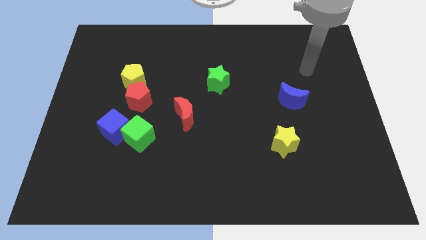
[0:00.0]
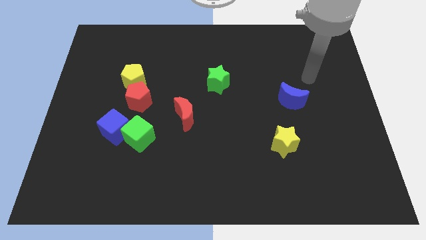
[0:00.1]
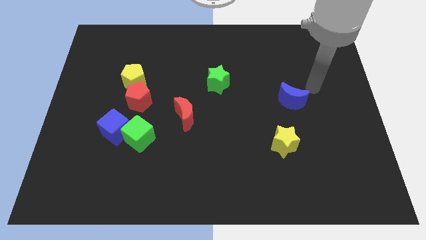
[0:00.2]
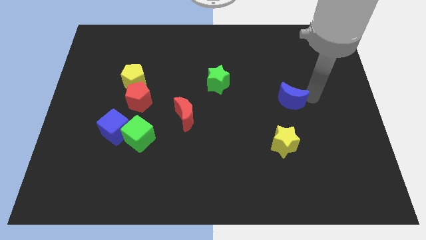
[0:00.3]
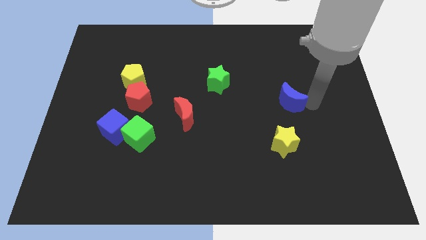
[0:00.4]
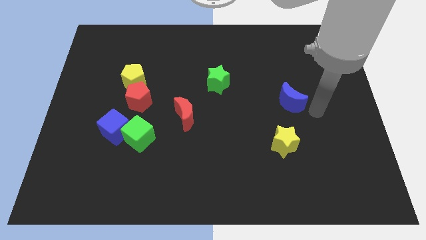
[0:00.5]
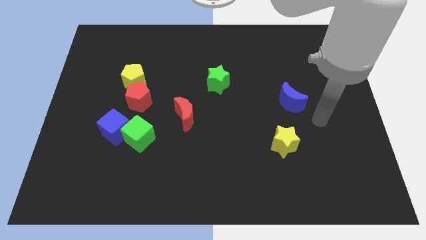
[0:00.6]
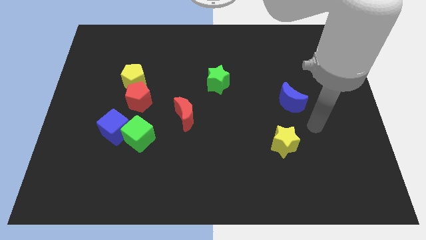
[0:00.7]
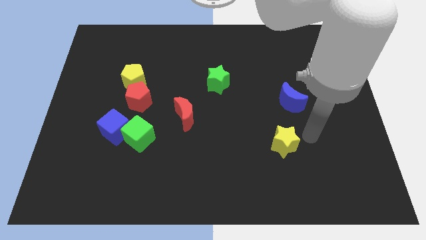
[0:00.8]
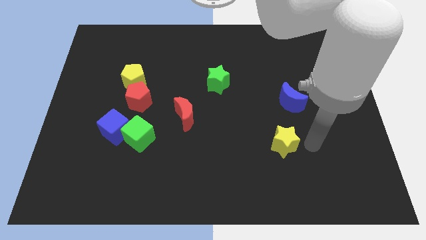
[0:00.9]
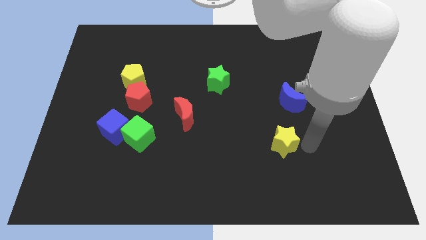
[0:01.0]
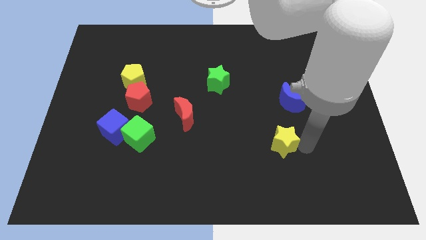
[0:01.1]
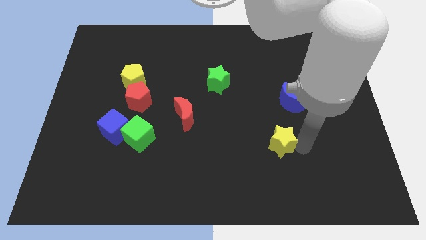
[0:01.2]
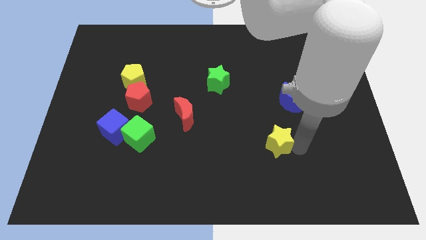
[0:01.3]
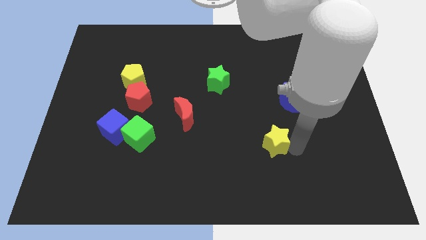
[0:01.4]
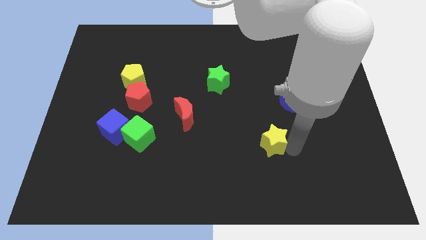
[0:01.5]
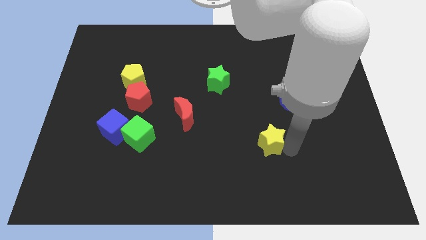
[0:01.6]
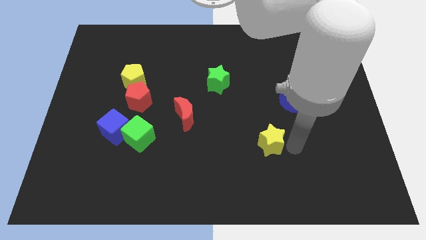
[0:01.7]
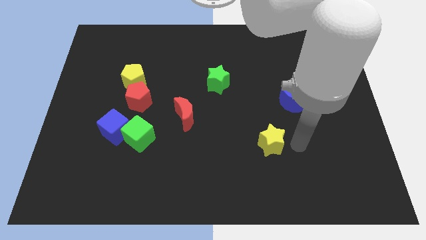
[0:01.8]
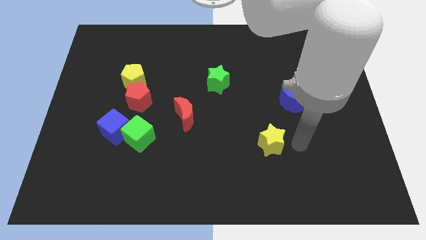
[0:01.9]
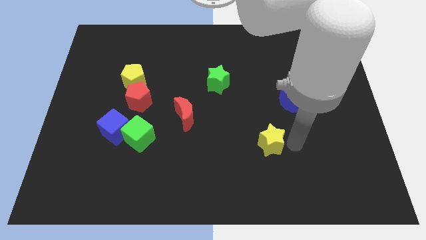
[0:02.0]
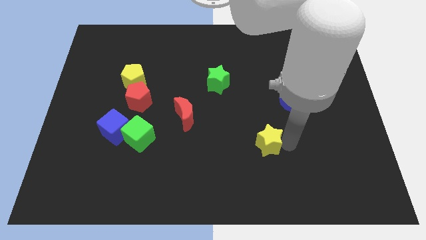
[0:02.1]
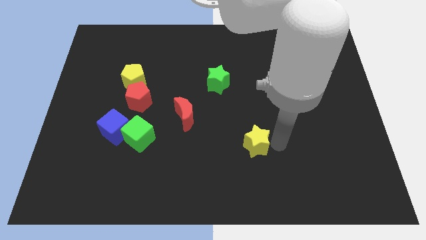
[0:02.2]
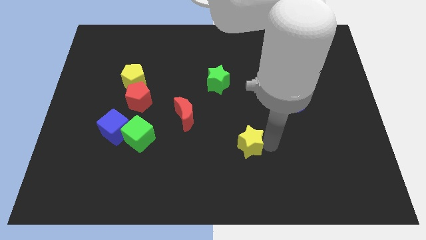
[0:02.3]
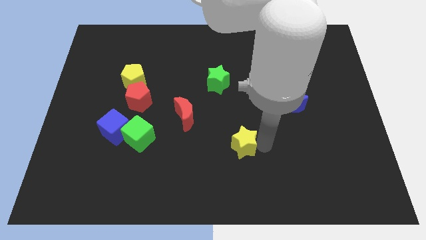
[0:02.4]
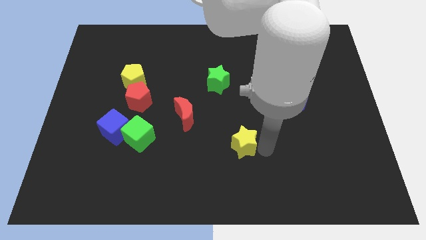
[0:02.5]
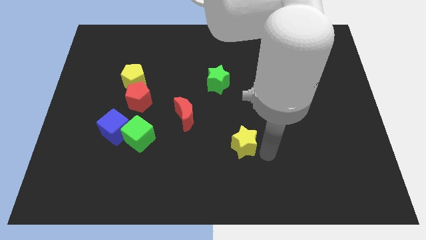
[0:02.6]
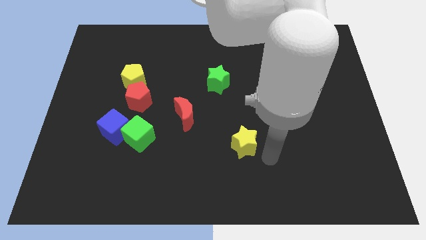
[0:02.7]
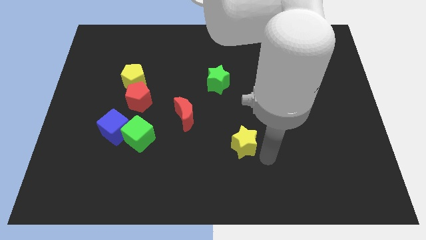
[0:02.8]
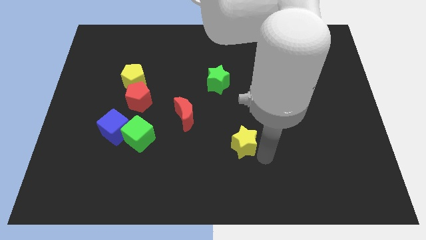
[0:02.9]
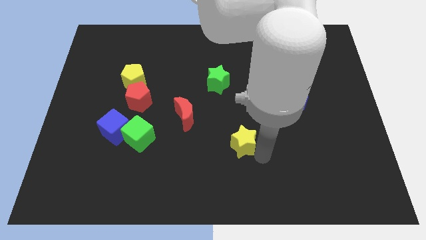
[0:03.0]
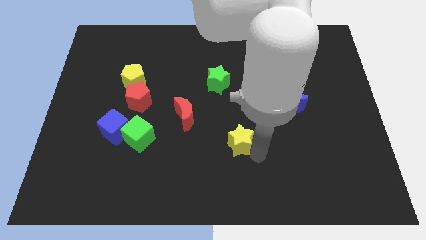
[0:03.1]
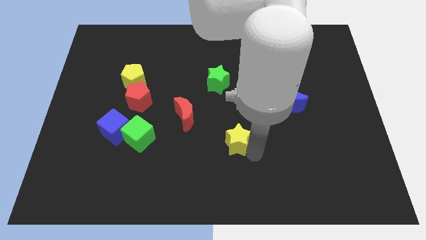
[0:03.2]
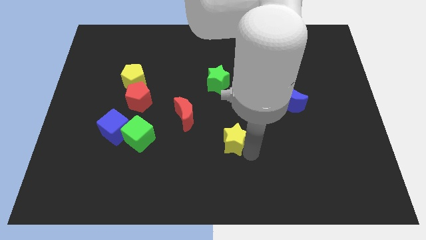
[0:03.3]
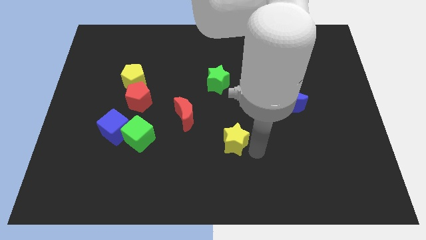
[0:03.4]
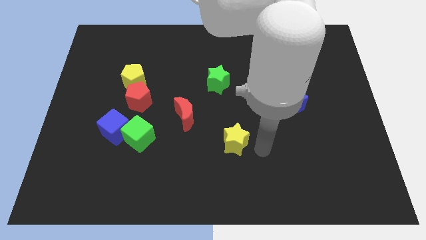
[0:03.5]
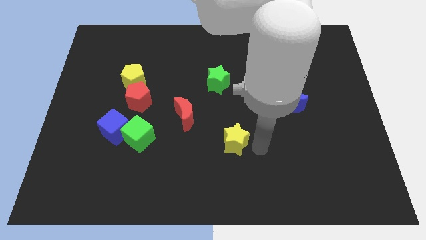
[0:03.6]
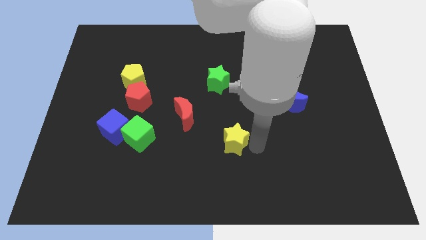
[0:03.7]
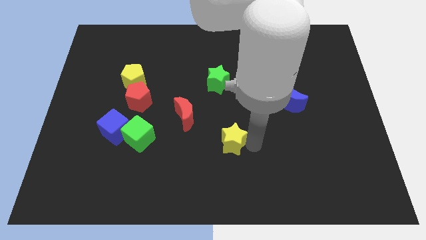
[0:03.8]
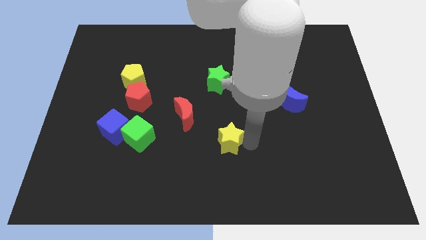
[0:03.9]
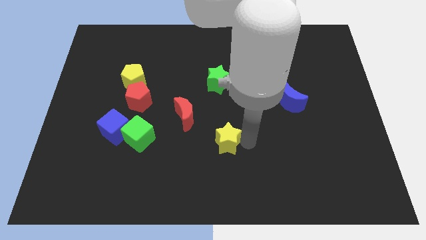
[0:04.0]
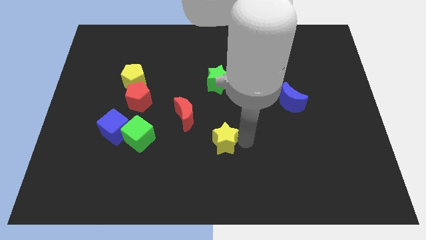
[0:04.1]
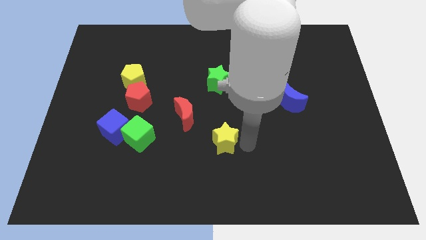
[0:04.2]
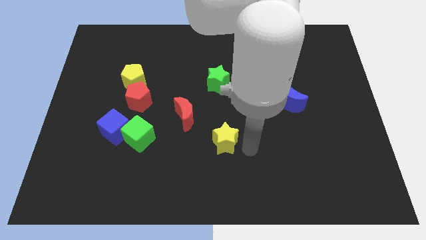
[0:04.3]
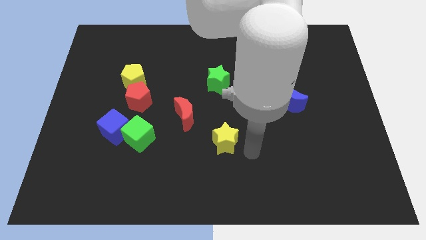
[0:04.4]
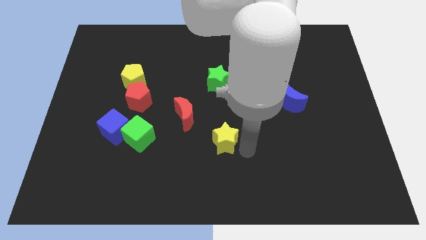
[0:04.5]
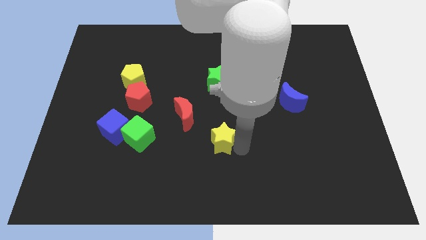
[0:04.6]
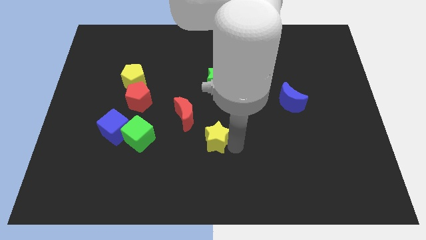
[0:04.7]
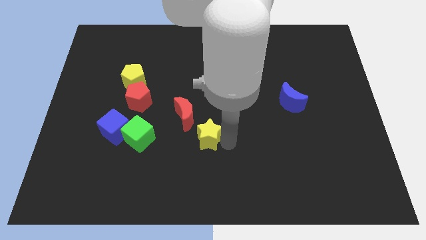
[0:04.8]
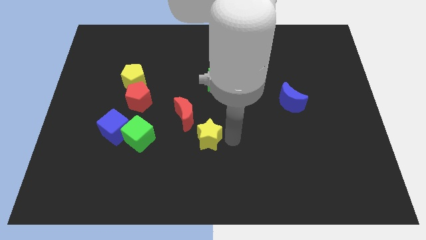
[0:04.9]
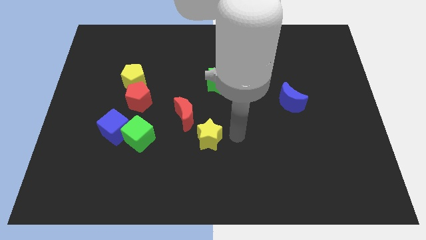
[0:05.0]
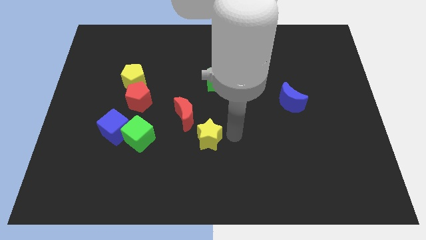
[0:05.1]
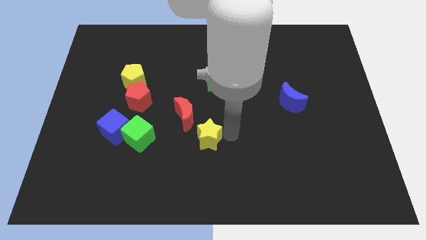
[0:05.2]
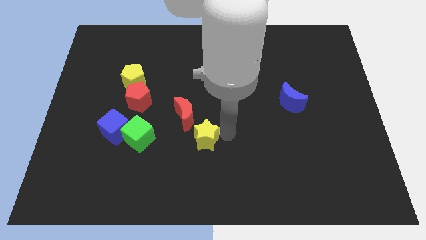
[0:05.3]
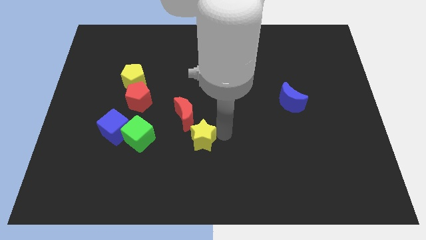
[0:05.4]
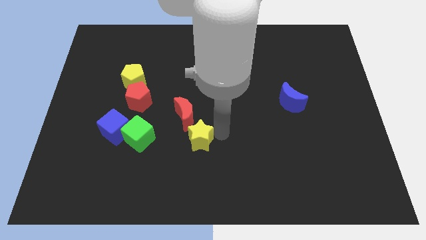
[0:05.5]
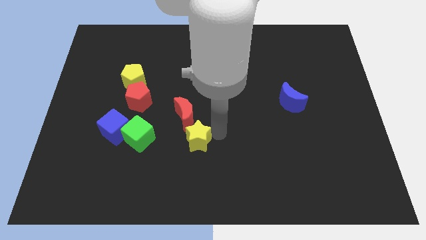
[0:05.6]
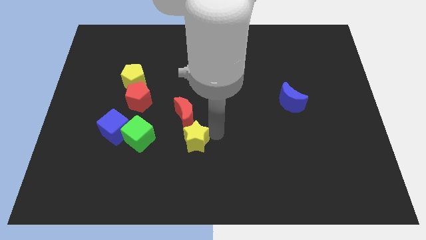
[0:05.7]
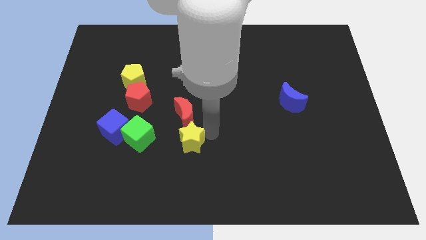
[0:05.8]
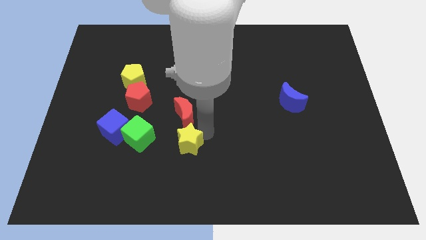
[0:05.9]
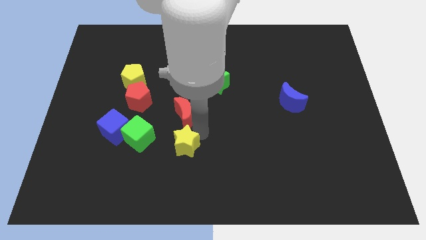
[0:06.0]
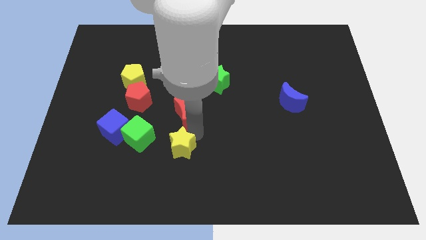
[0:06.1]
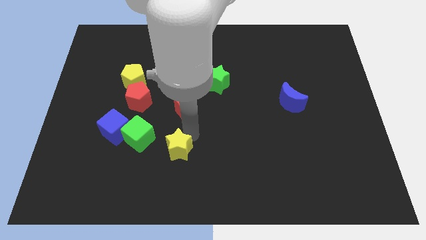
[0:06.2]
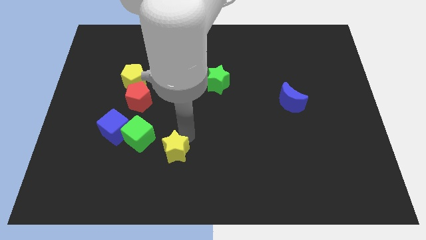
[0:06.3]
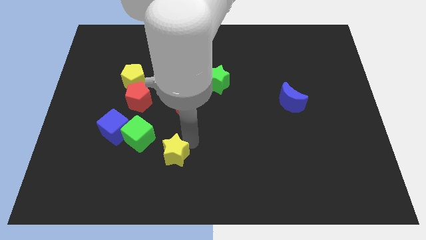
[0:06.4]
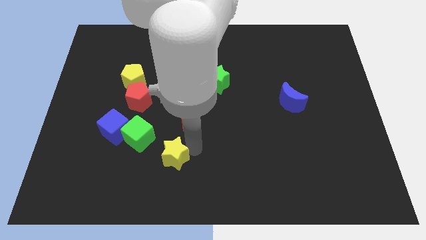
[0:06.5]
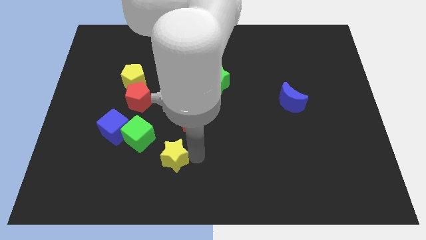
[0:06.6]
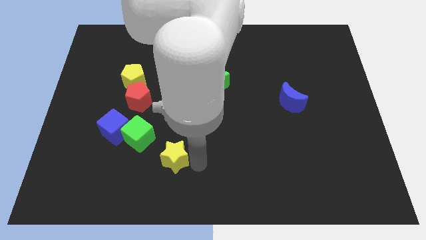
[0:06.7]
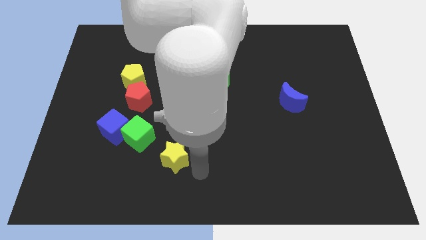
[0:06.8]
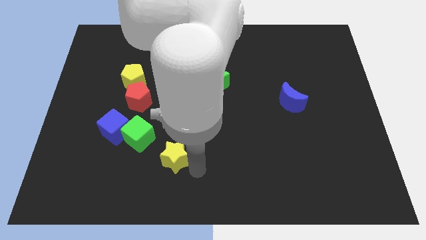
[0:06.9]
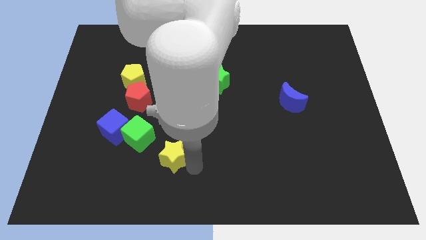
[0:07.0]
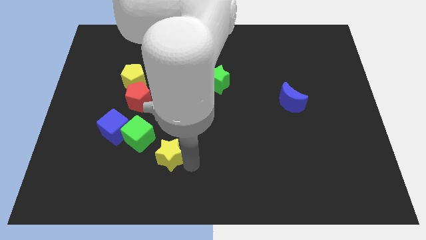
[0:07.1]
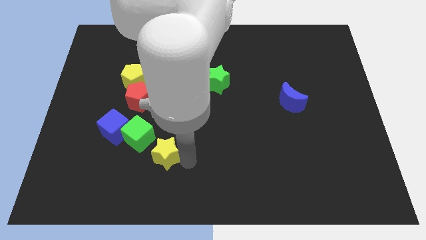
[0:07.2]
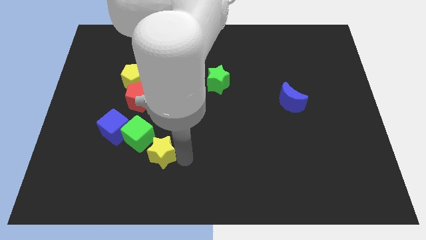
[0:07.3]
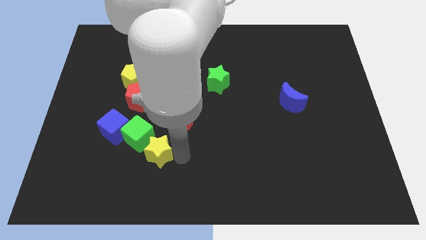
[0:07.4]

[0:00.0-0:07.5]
push the yellow star close to the green cube

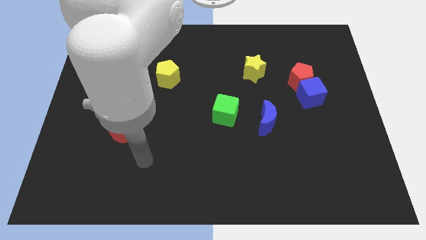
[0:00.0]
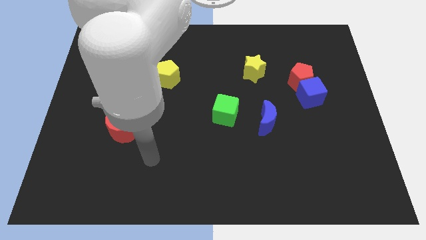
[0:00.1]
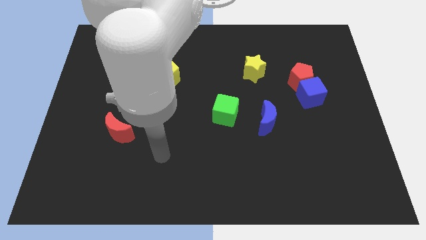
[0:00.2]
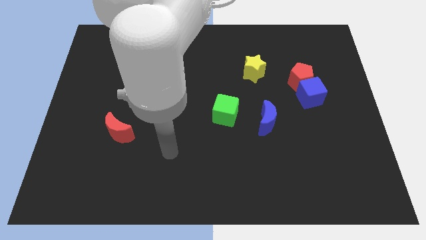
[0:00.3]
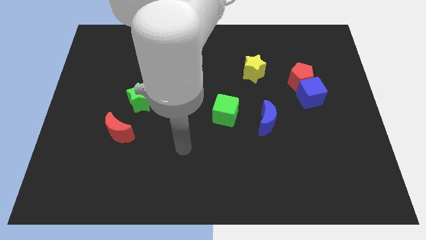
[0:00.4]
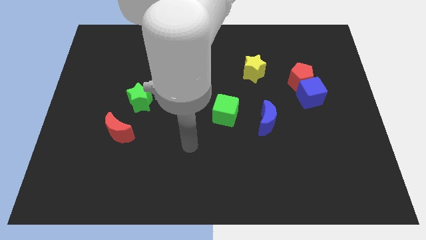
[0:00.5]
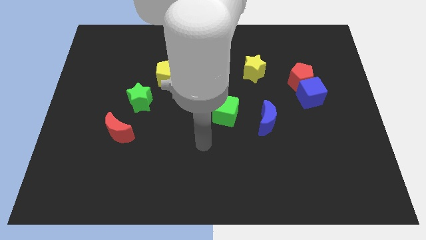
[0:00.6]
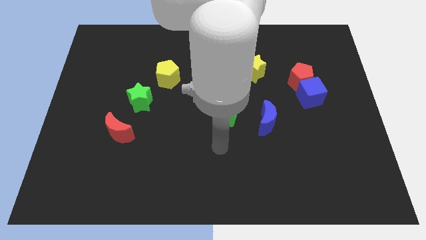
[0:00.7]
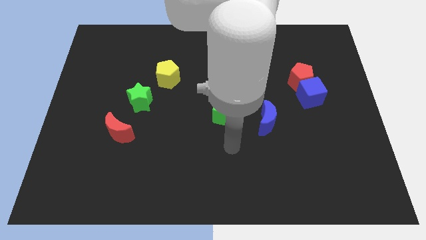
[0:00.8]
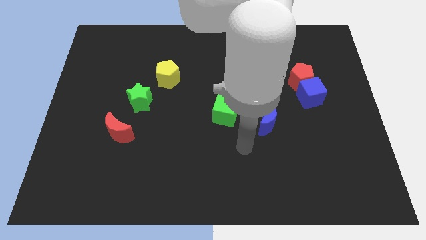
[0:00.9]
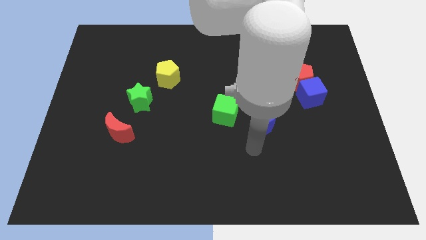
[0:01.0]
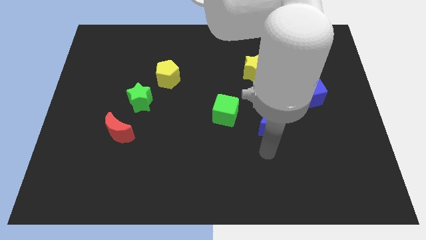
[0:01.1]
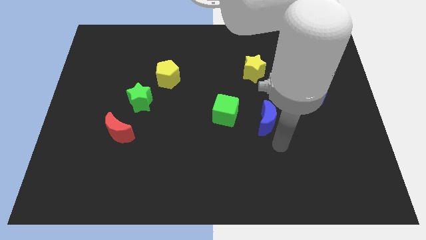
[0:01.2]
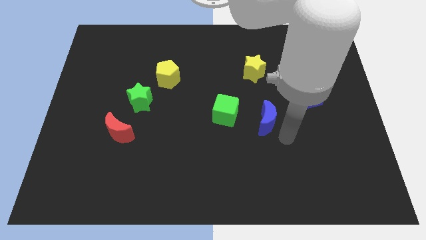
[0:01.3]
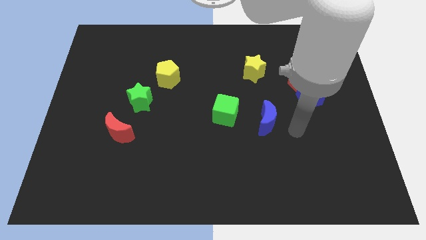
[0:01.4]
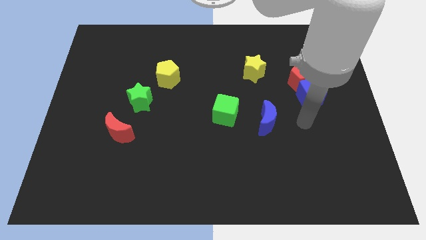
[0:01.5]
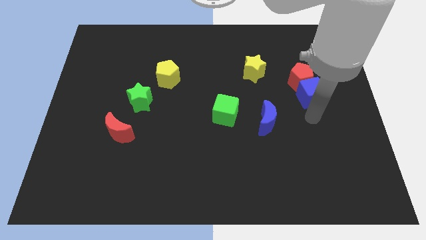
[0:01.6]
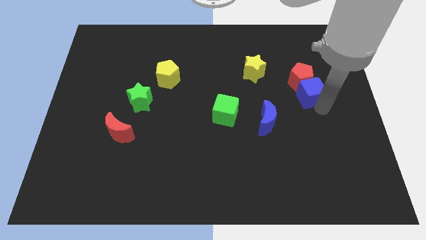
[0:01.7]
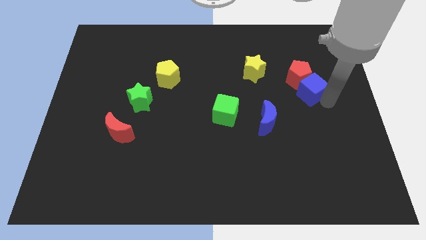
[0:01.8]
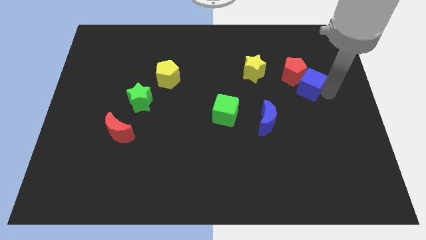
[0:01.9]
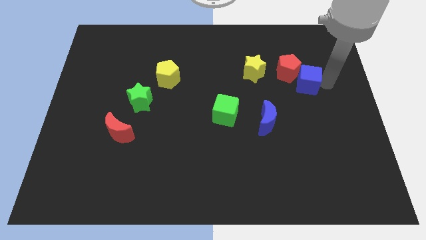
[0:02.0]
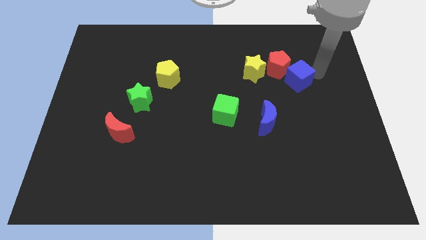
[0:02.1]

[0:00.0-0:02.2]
move the red pentagon close to the yellow star
